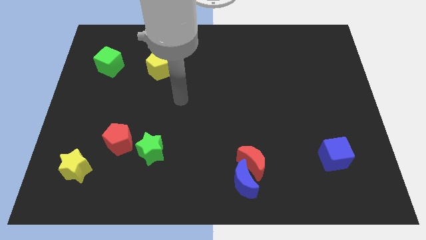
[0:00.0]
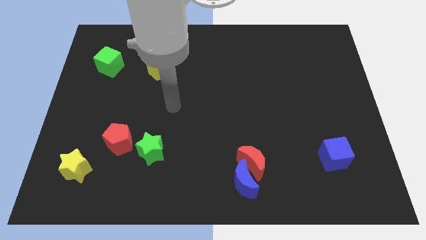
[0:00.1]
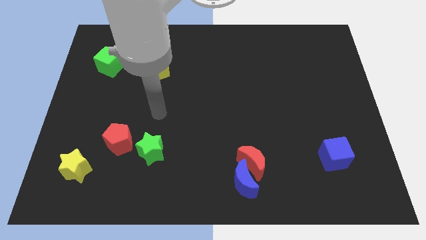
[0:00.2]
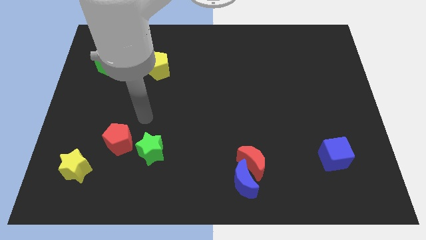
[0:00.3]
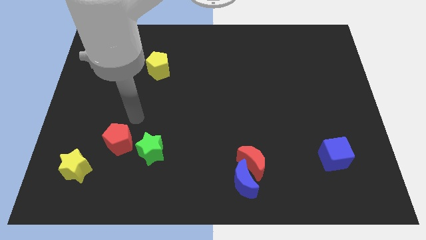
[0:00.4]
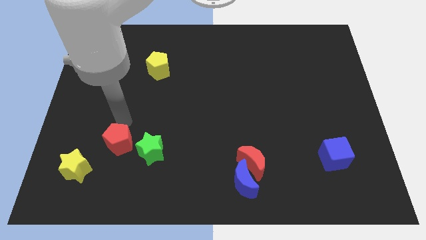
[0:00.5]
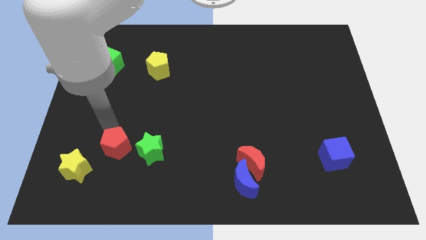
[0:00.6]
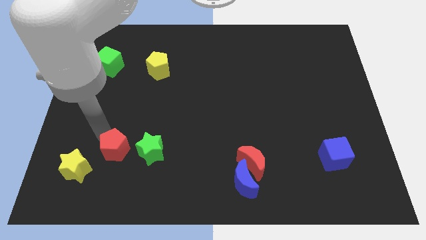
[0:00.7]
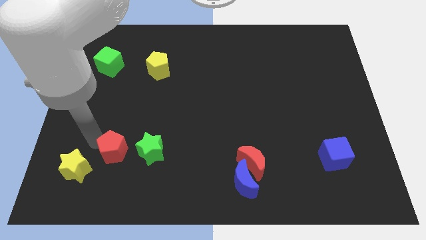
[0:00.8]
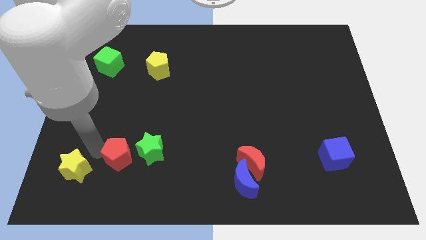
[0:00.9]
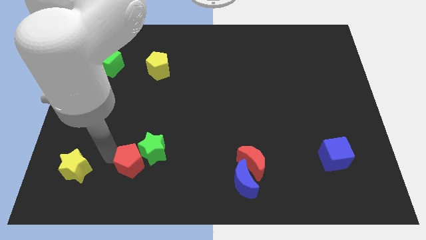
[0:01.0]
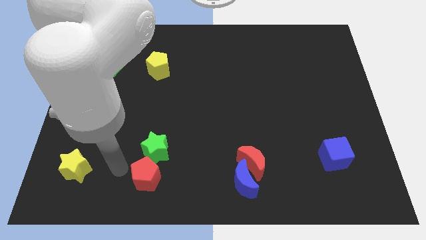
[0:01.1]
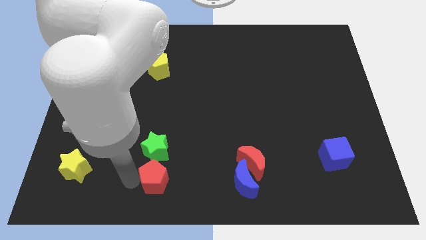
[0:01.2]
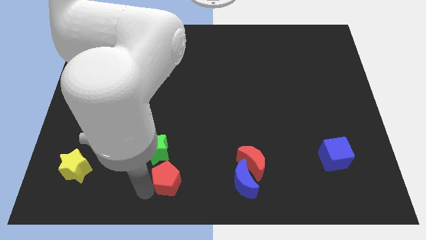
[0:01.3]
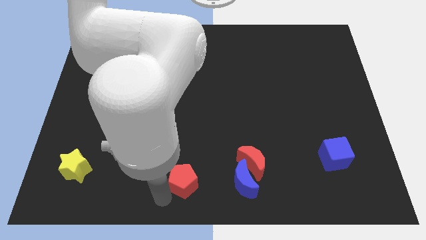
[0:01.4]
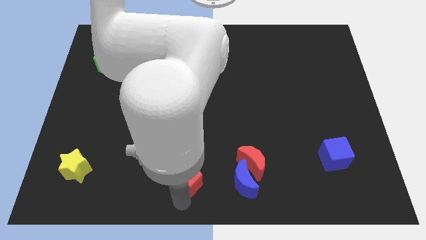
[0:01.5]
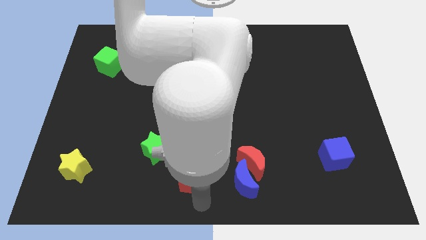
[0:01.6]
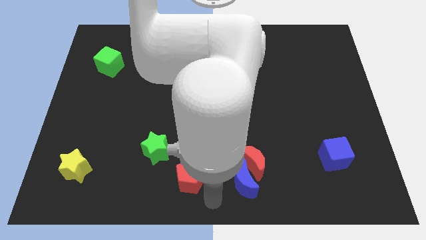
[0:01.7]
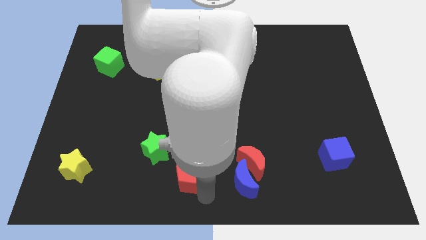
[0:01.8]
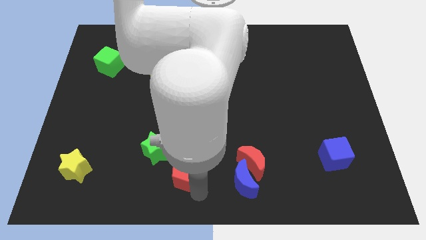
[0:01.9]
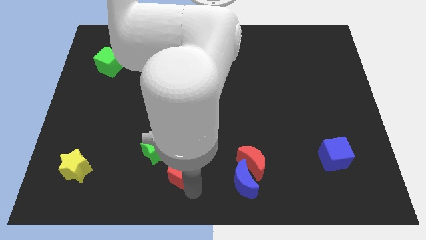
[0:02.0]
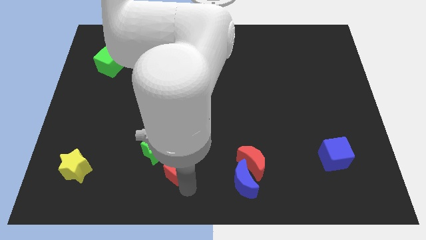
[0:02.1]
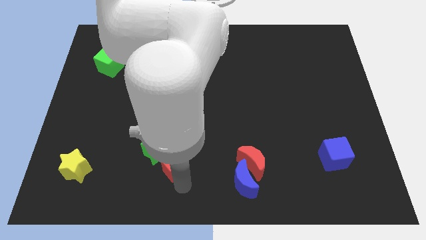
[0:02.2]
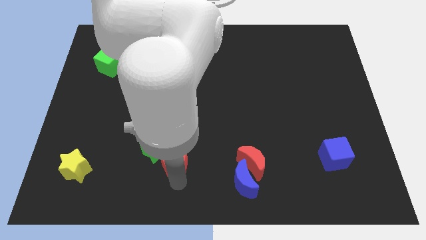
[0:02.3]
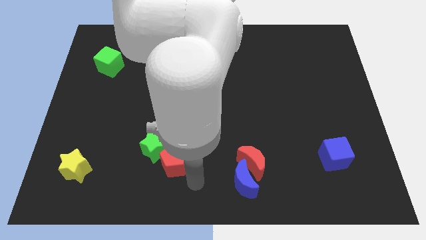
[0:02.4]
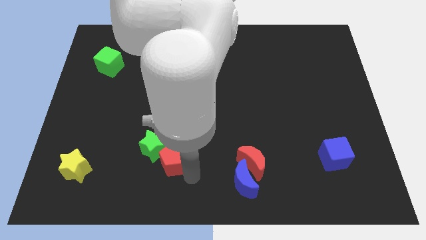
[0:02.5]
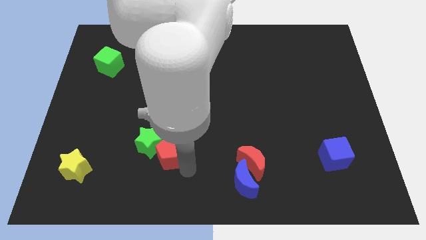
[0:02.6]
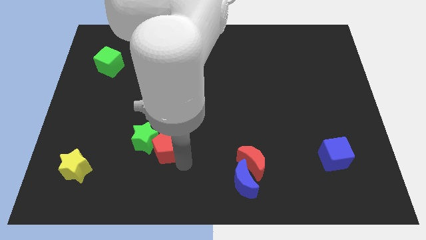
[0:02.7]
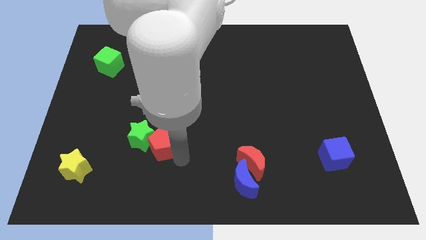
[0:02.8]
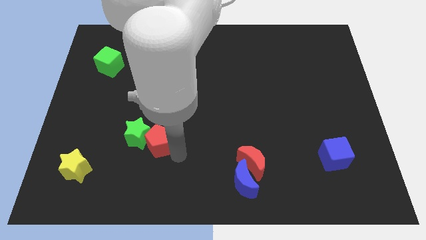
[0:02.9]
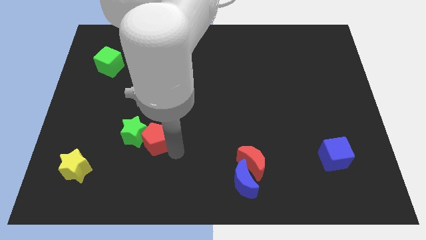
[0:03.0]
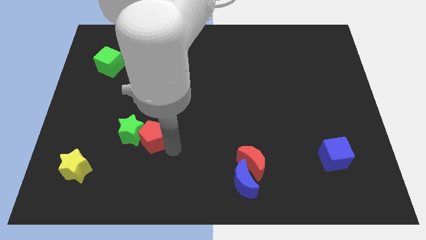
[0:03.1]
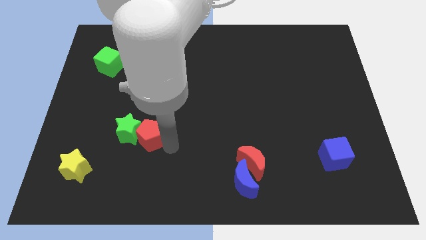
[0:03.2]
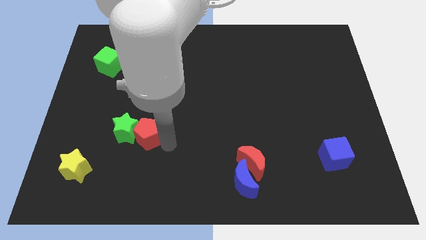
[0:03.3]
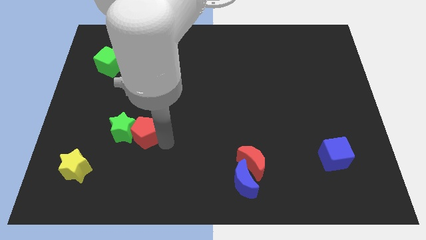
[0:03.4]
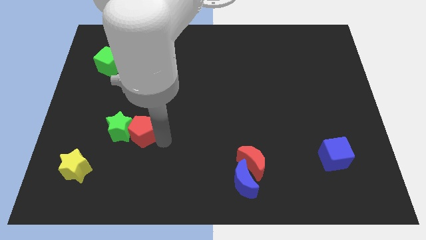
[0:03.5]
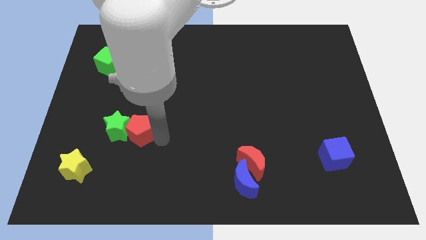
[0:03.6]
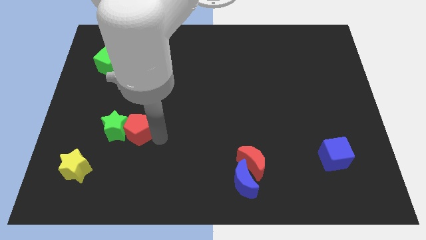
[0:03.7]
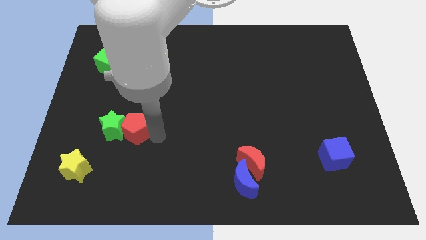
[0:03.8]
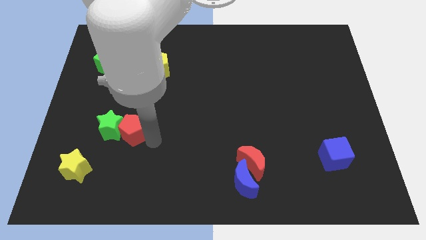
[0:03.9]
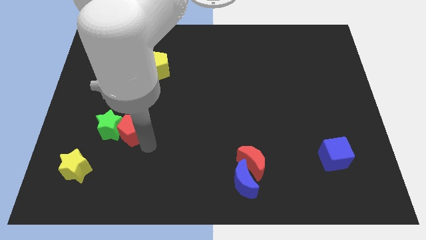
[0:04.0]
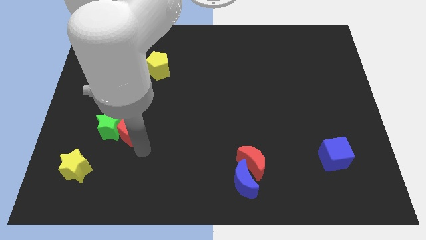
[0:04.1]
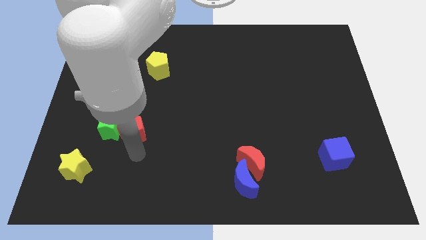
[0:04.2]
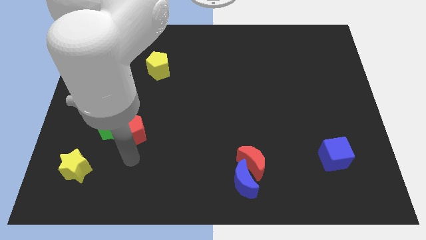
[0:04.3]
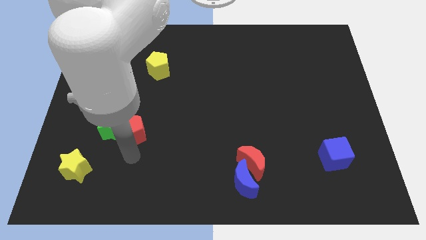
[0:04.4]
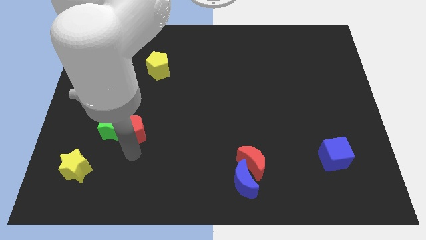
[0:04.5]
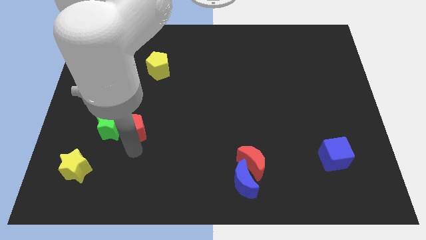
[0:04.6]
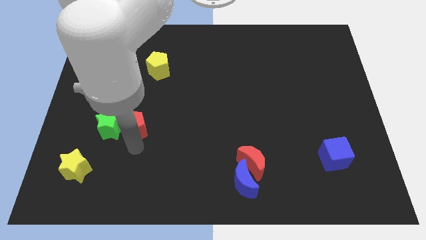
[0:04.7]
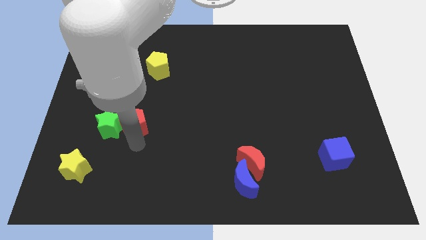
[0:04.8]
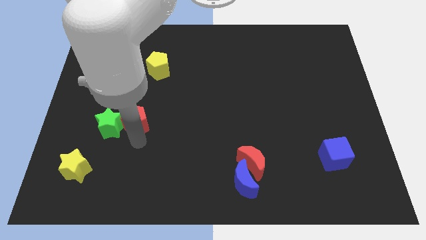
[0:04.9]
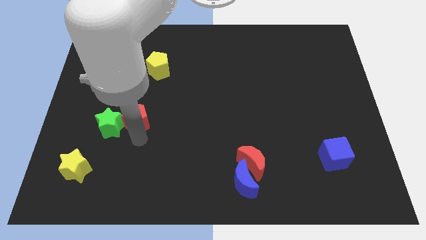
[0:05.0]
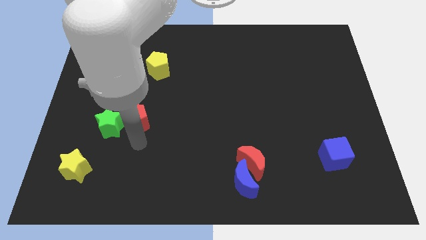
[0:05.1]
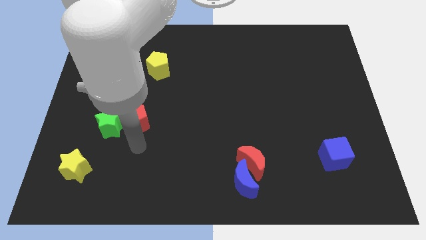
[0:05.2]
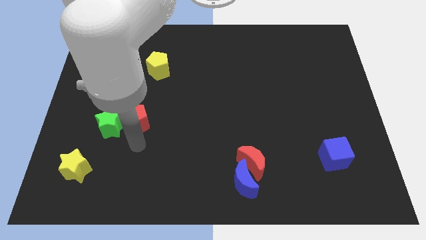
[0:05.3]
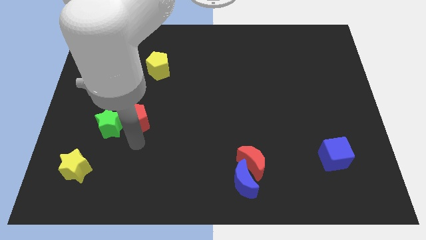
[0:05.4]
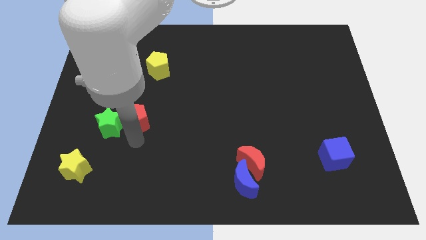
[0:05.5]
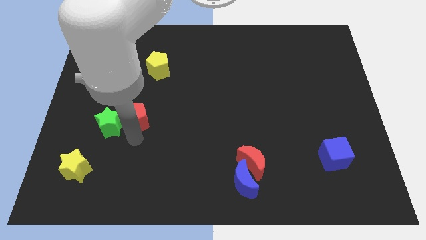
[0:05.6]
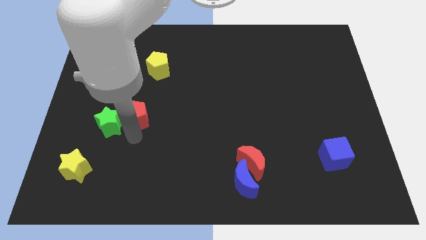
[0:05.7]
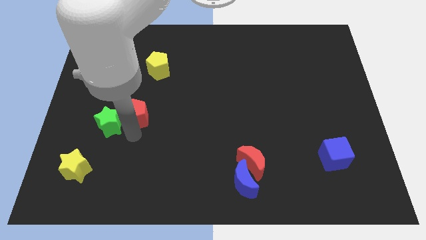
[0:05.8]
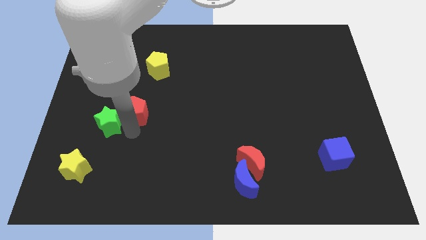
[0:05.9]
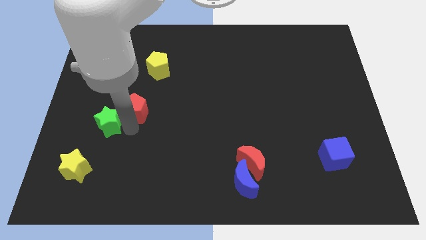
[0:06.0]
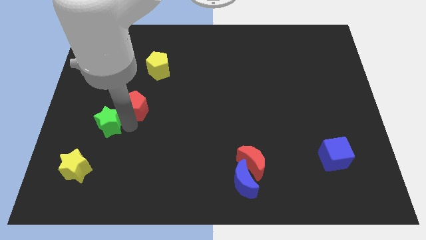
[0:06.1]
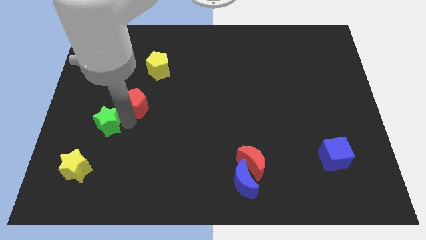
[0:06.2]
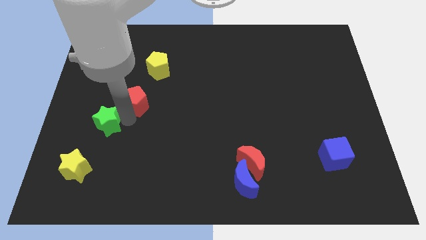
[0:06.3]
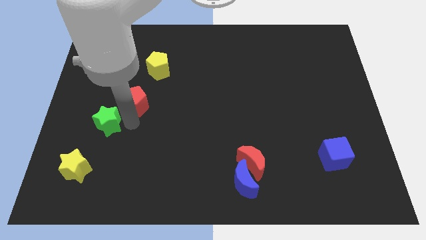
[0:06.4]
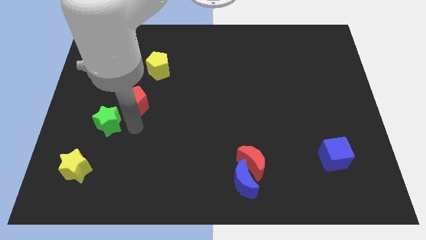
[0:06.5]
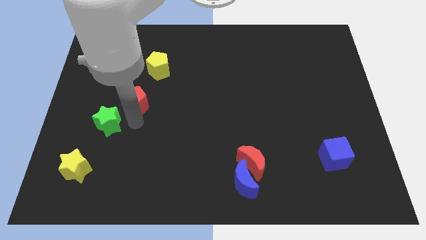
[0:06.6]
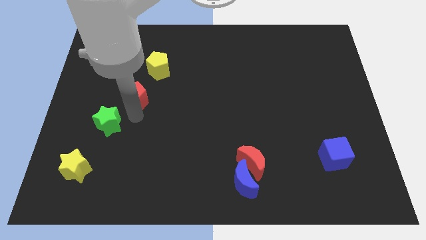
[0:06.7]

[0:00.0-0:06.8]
push the red pentagon to the bottom left side of the yellow pentagon

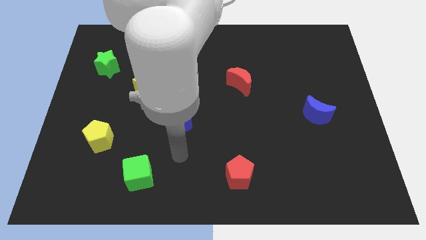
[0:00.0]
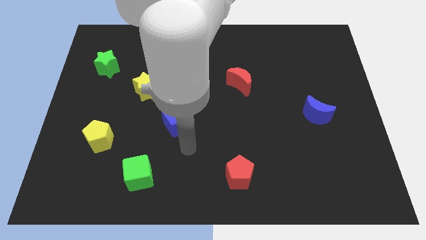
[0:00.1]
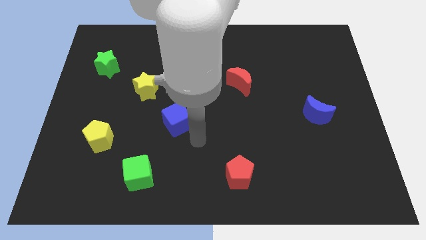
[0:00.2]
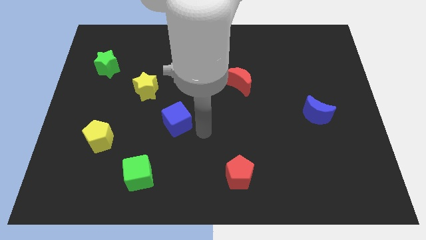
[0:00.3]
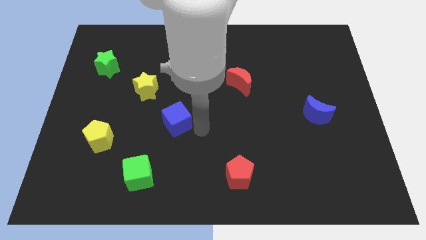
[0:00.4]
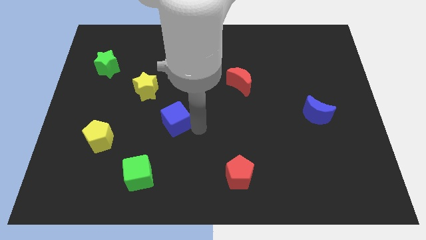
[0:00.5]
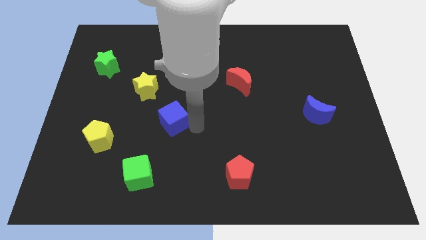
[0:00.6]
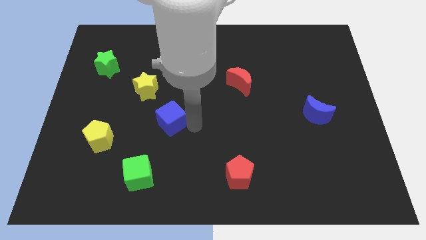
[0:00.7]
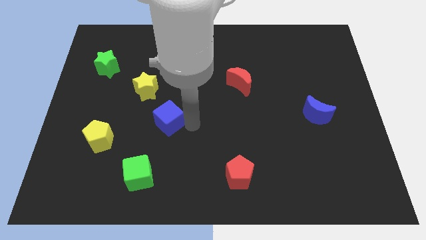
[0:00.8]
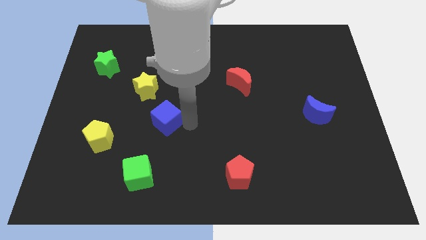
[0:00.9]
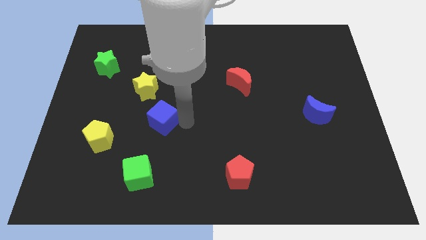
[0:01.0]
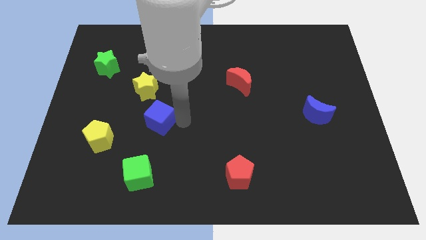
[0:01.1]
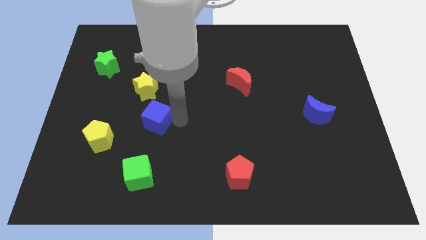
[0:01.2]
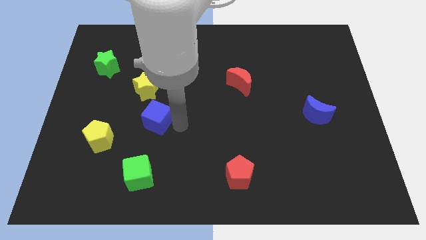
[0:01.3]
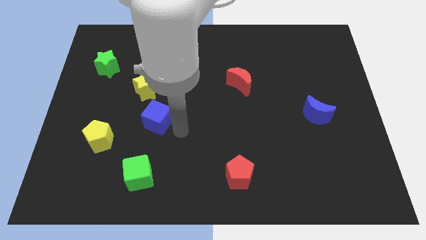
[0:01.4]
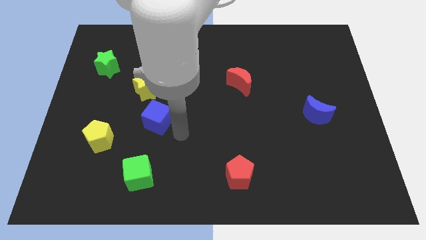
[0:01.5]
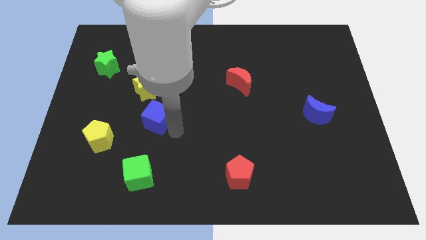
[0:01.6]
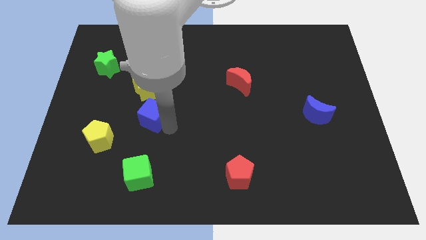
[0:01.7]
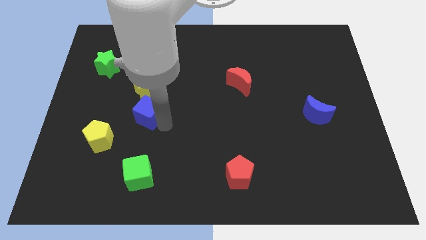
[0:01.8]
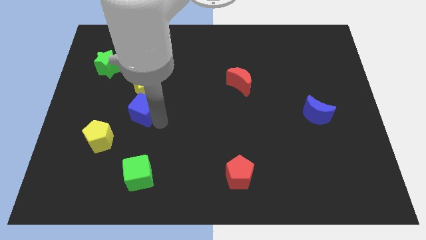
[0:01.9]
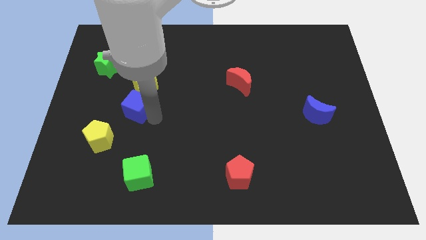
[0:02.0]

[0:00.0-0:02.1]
slide the blue cube diagonally down and to the left of the yellow star
